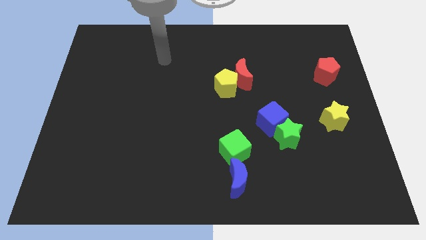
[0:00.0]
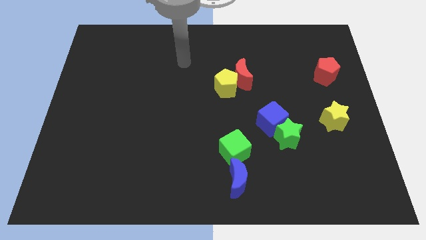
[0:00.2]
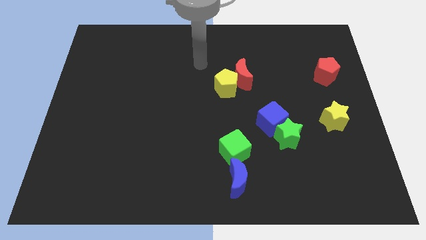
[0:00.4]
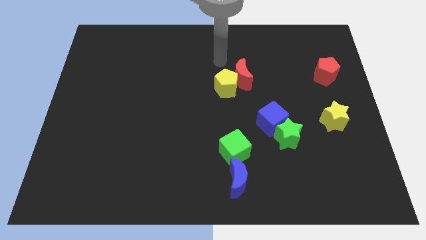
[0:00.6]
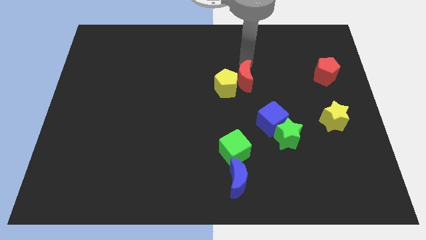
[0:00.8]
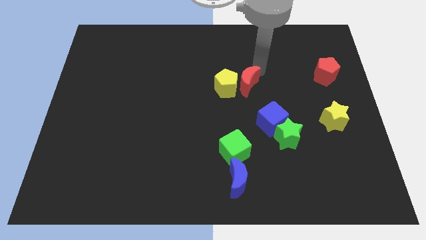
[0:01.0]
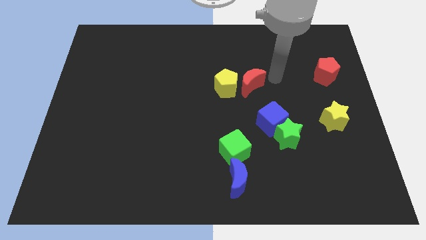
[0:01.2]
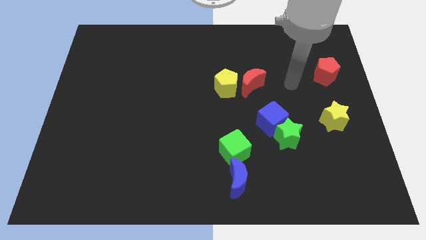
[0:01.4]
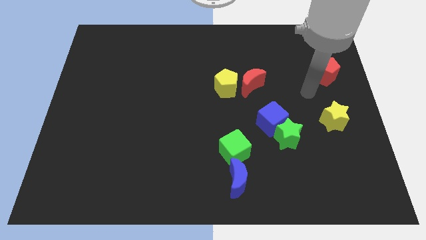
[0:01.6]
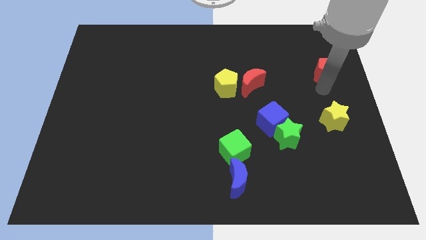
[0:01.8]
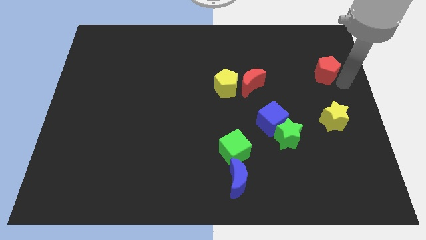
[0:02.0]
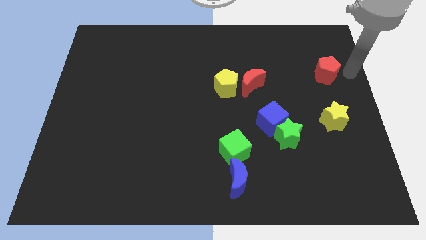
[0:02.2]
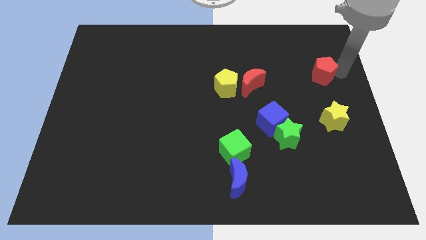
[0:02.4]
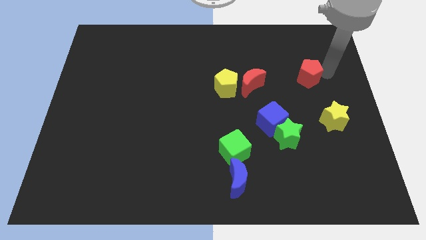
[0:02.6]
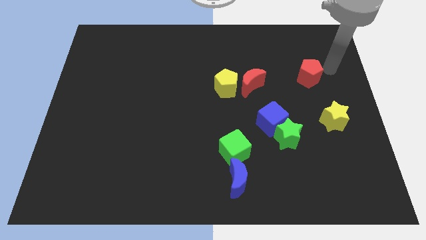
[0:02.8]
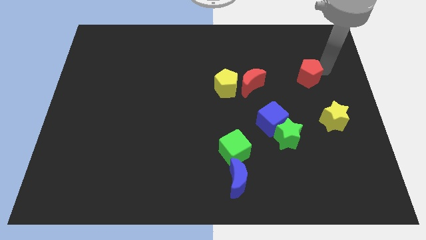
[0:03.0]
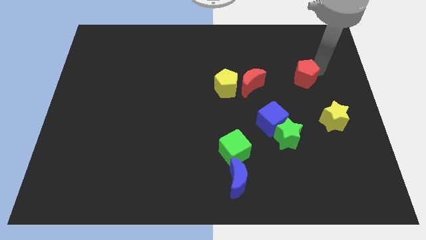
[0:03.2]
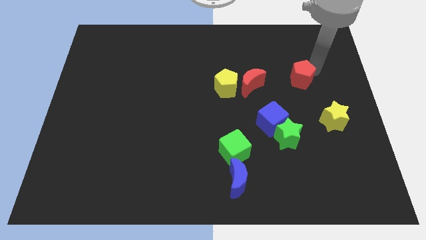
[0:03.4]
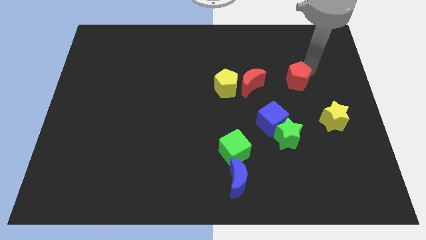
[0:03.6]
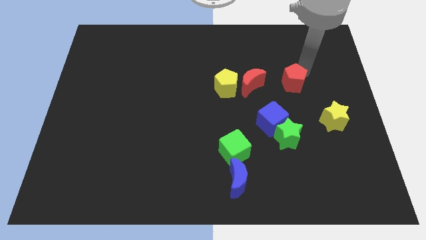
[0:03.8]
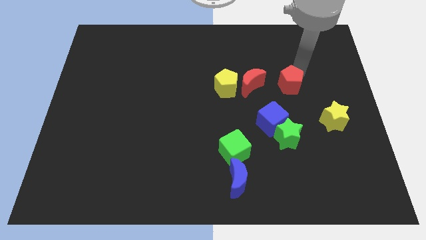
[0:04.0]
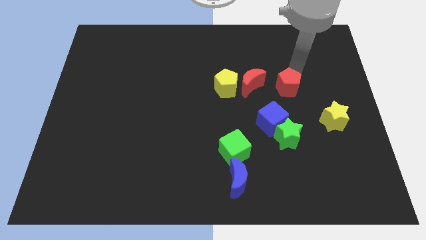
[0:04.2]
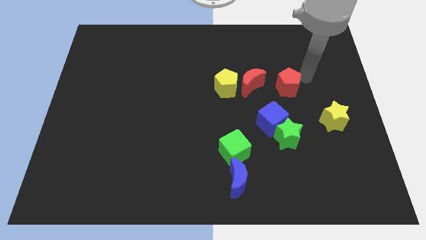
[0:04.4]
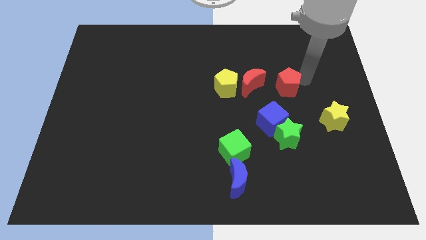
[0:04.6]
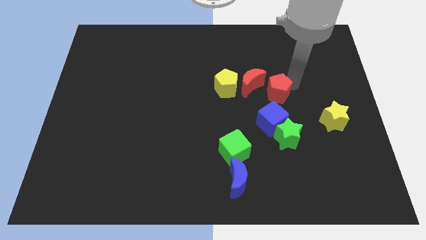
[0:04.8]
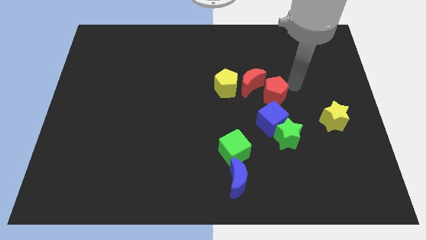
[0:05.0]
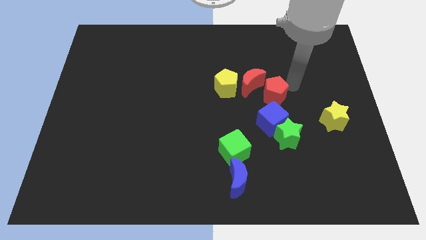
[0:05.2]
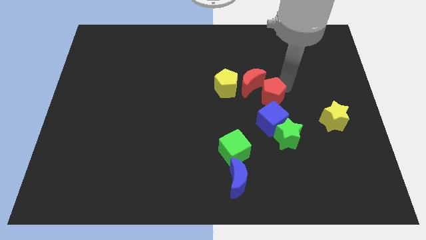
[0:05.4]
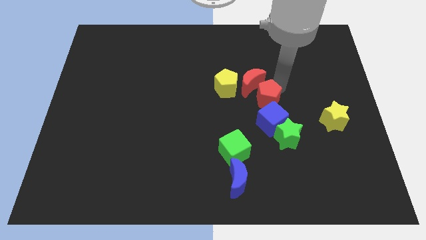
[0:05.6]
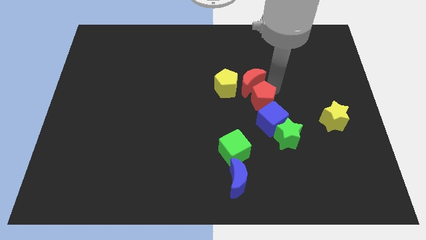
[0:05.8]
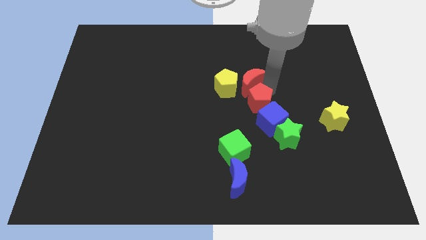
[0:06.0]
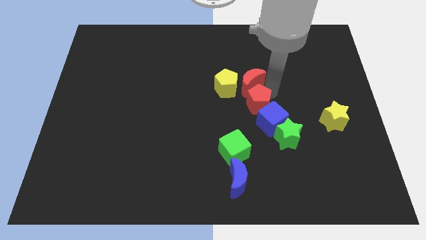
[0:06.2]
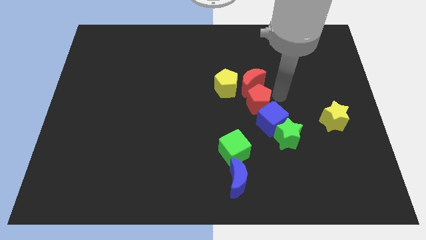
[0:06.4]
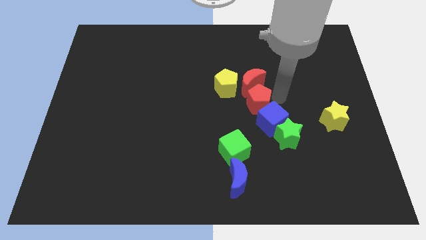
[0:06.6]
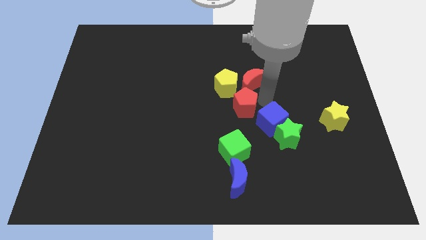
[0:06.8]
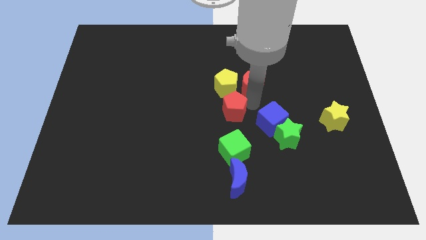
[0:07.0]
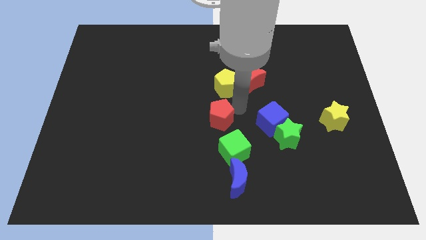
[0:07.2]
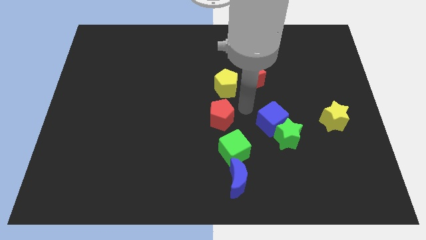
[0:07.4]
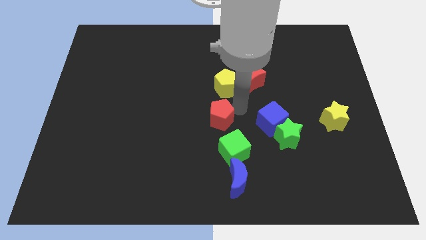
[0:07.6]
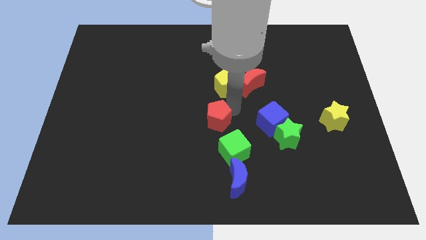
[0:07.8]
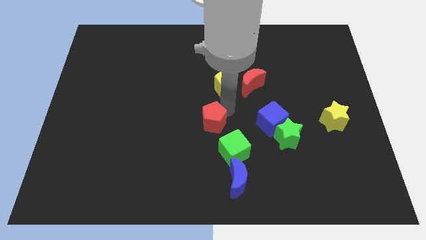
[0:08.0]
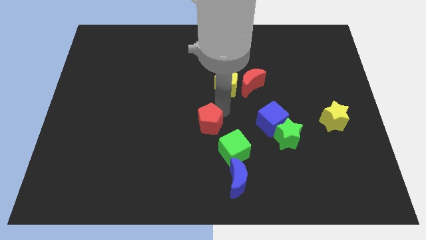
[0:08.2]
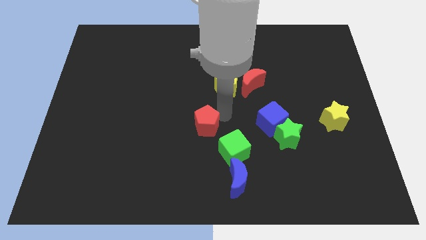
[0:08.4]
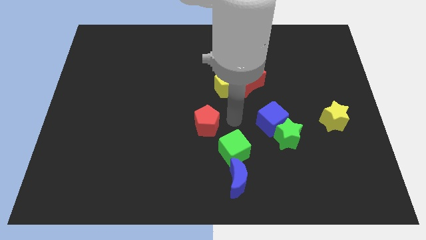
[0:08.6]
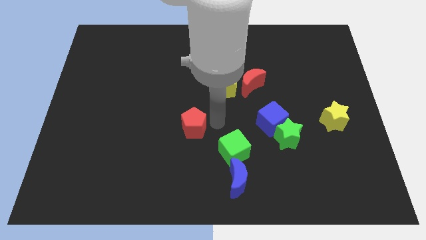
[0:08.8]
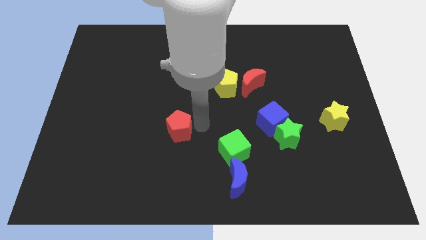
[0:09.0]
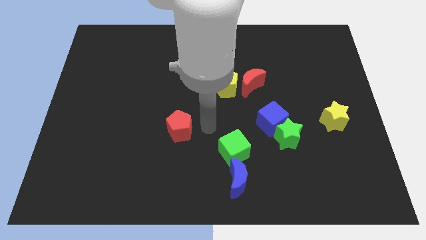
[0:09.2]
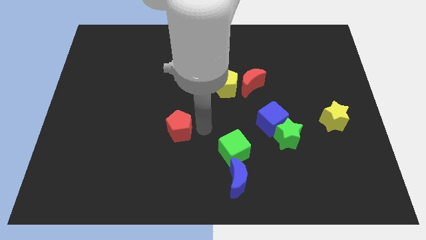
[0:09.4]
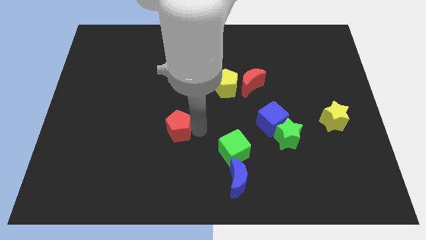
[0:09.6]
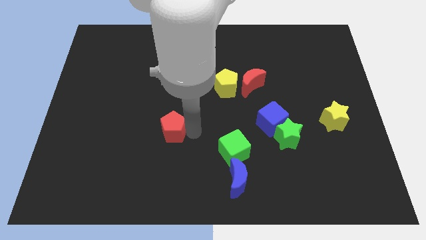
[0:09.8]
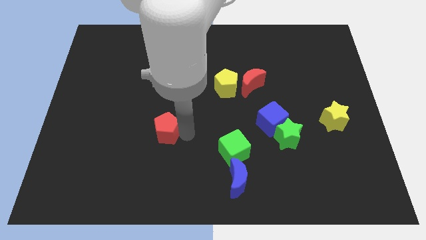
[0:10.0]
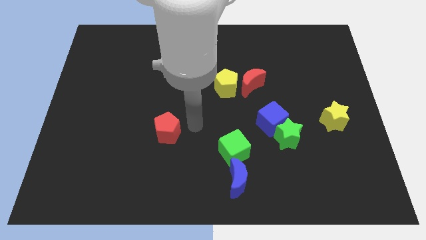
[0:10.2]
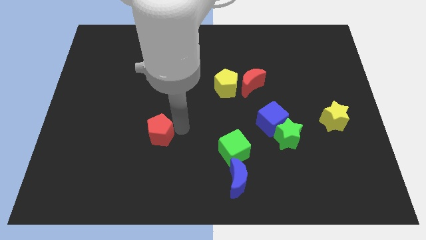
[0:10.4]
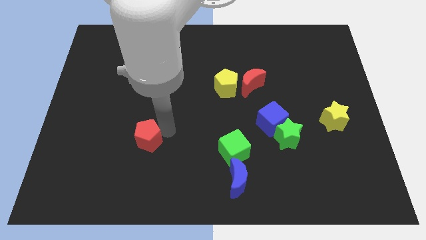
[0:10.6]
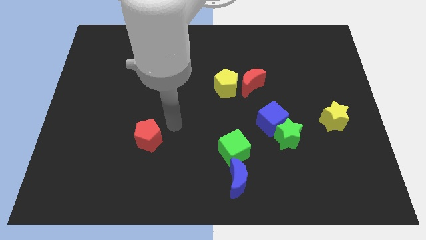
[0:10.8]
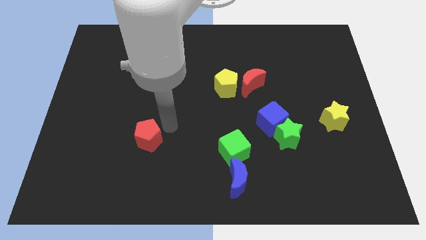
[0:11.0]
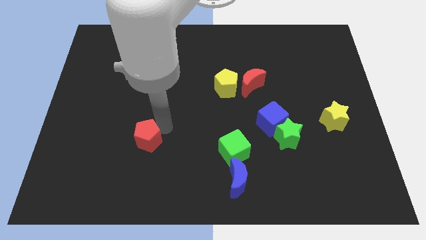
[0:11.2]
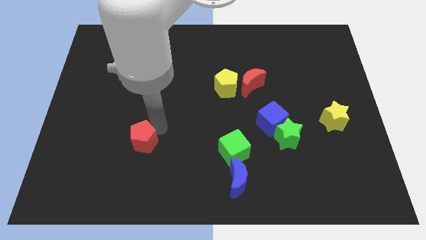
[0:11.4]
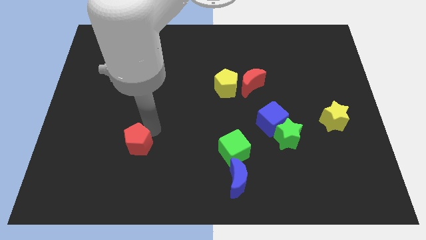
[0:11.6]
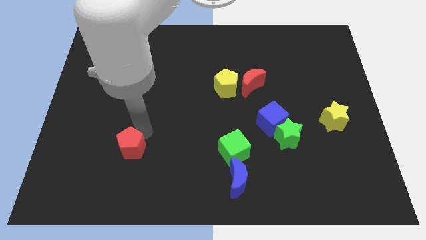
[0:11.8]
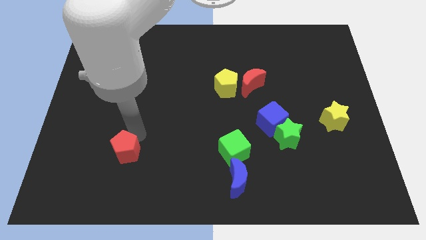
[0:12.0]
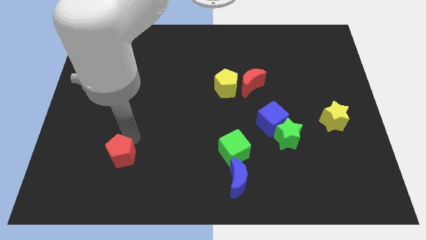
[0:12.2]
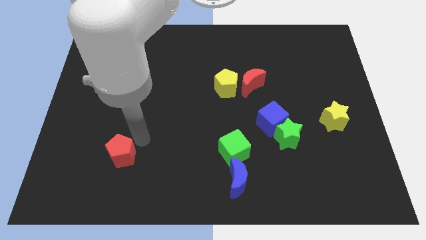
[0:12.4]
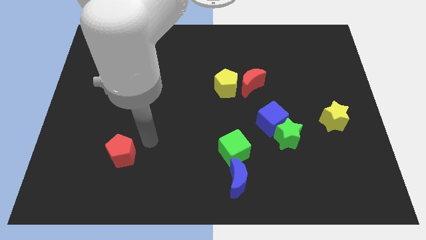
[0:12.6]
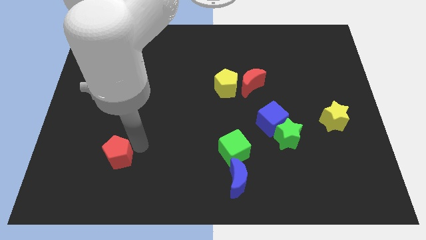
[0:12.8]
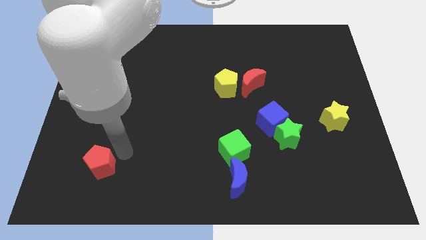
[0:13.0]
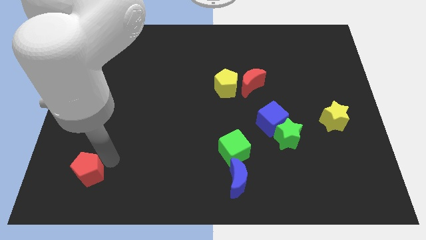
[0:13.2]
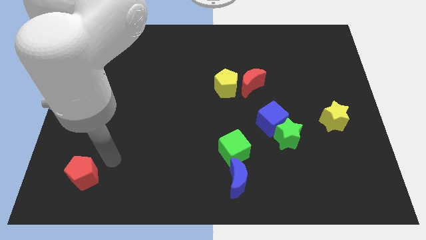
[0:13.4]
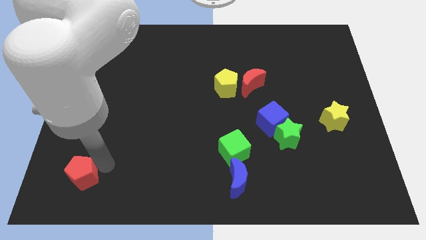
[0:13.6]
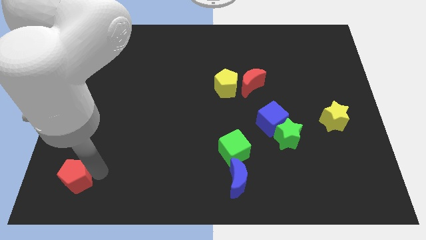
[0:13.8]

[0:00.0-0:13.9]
slide the red pentagon to the bottom left
